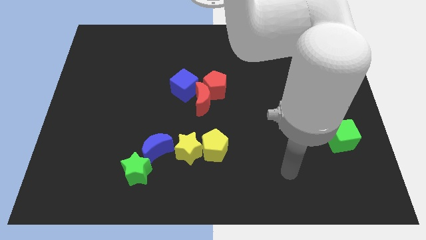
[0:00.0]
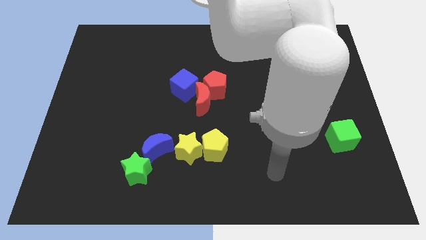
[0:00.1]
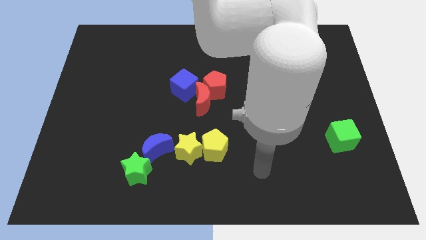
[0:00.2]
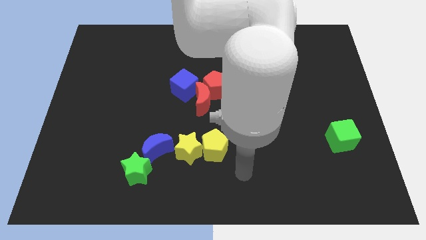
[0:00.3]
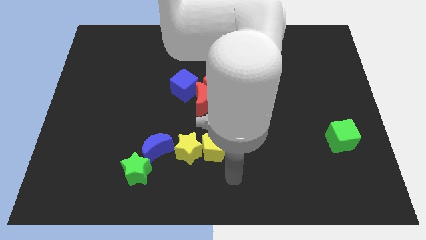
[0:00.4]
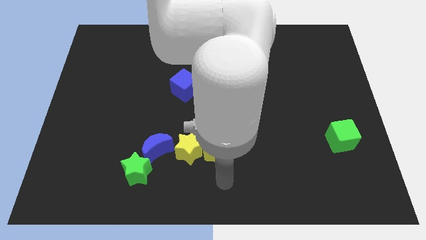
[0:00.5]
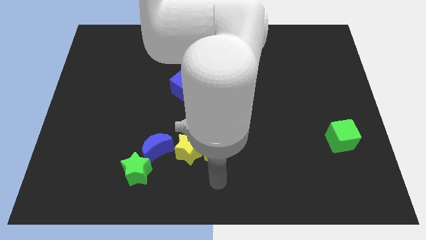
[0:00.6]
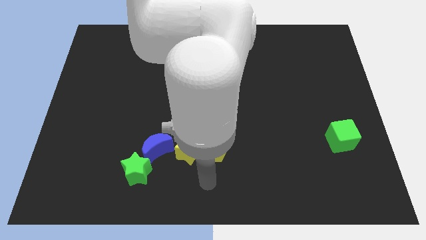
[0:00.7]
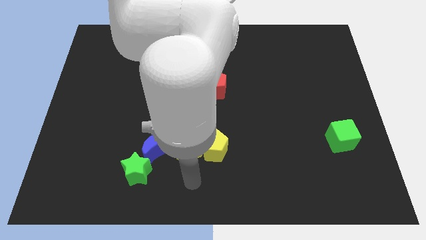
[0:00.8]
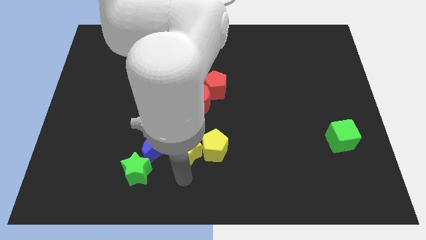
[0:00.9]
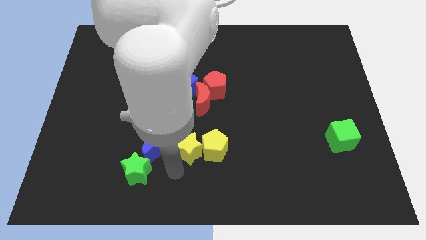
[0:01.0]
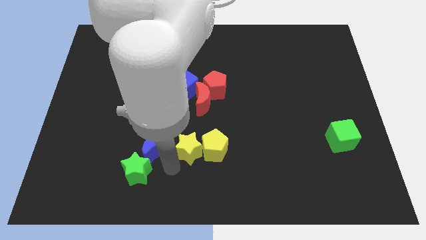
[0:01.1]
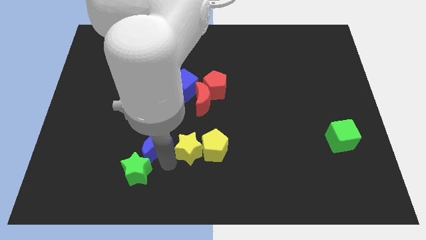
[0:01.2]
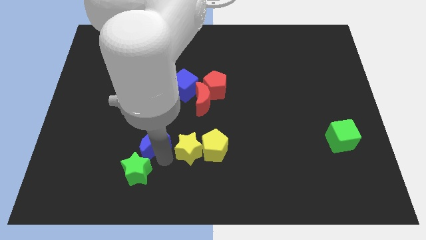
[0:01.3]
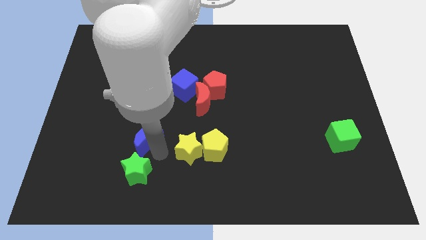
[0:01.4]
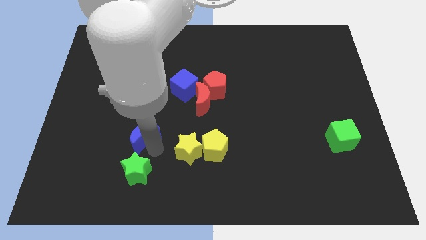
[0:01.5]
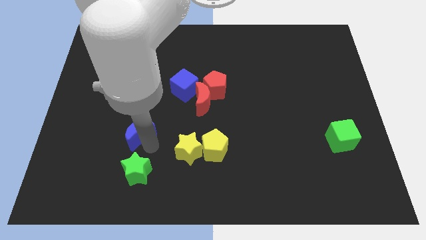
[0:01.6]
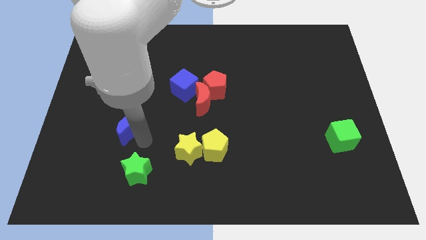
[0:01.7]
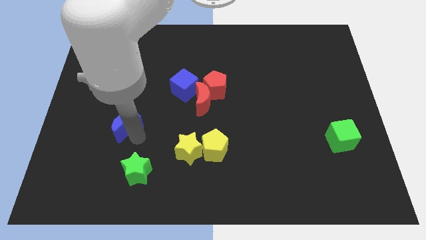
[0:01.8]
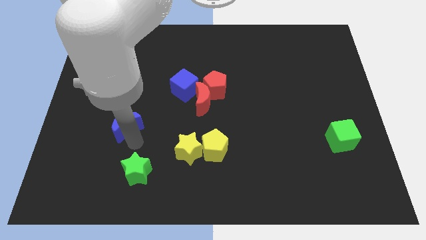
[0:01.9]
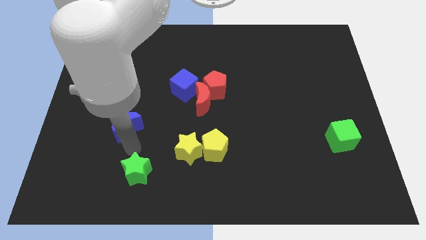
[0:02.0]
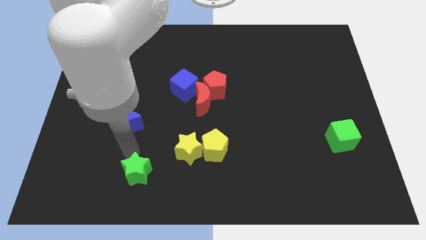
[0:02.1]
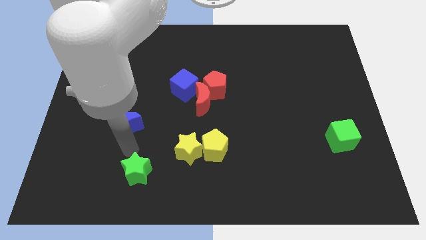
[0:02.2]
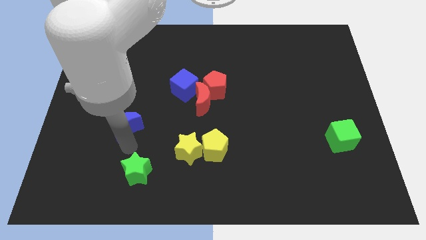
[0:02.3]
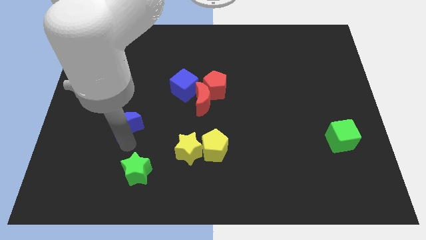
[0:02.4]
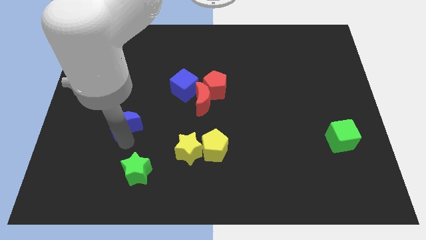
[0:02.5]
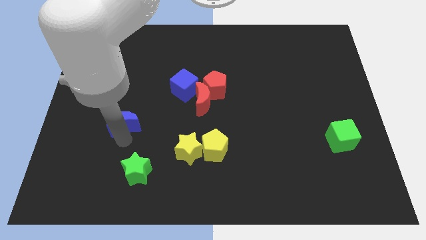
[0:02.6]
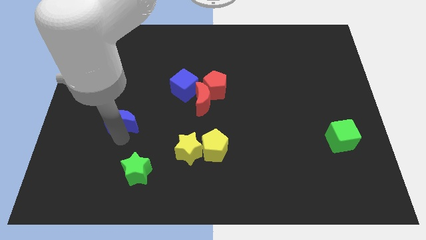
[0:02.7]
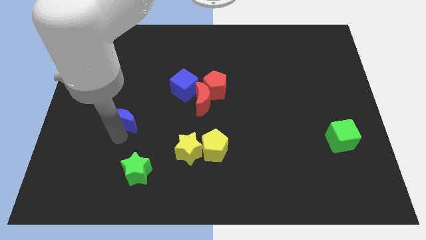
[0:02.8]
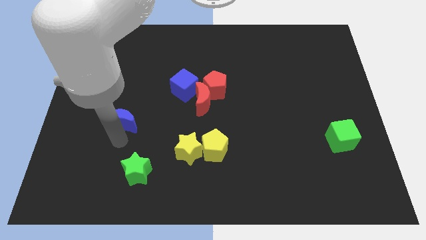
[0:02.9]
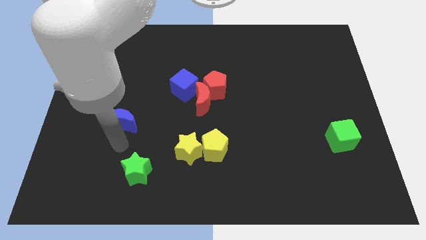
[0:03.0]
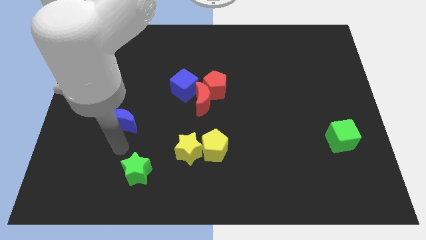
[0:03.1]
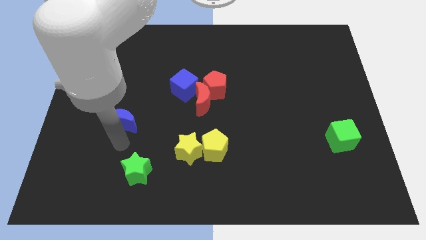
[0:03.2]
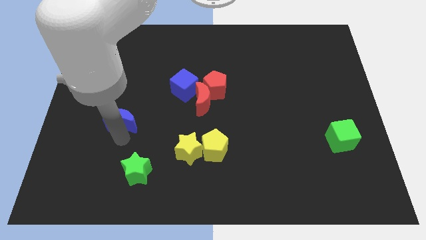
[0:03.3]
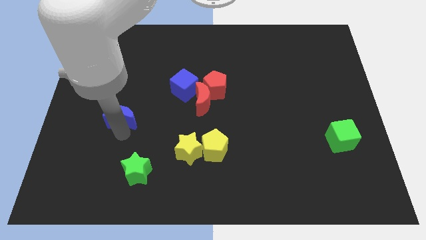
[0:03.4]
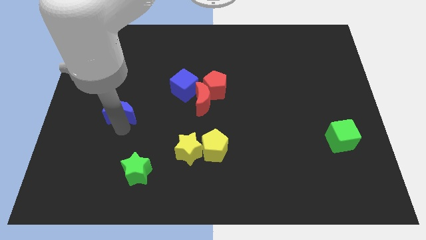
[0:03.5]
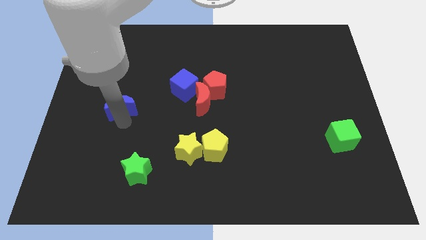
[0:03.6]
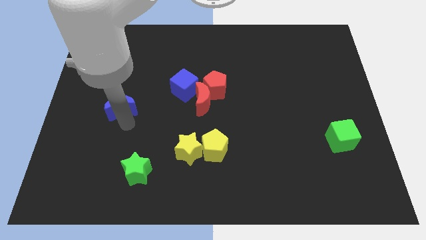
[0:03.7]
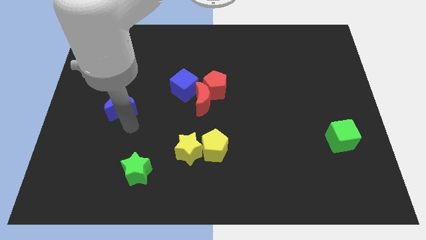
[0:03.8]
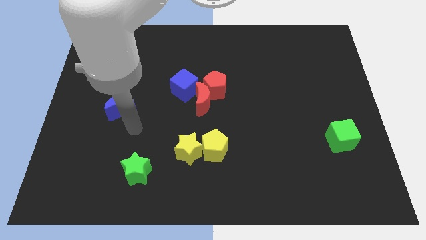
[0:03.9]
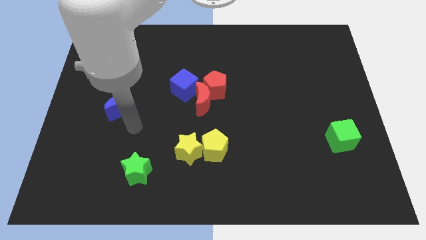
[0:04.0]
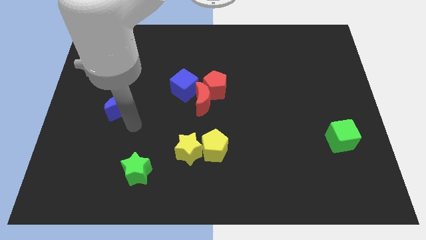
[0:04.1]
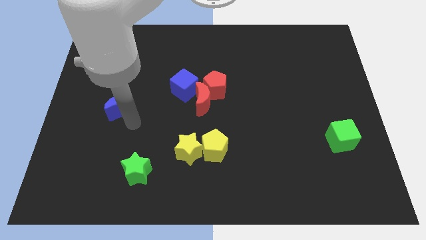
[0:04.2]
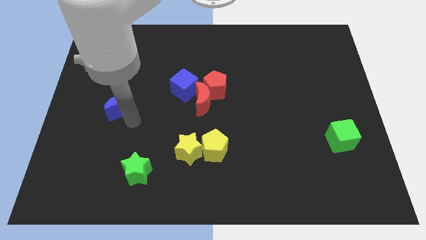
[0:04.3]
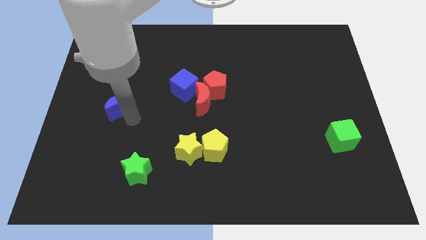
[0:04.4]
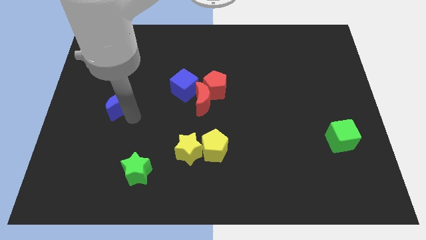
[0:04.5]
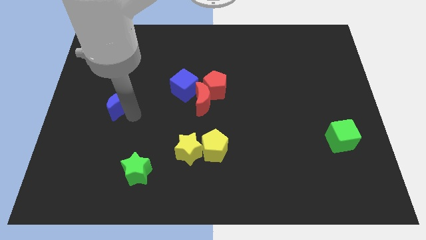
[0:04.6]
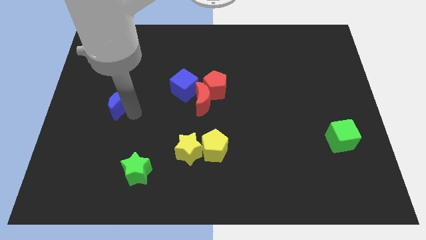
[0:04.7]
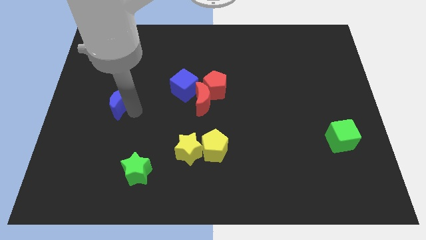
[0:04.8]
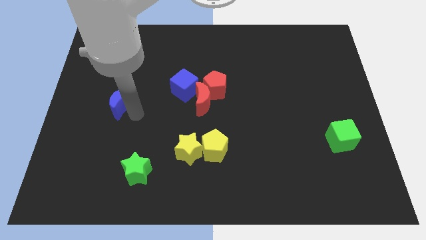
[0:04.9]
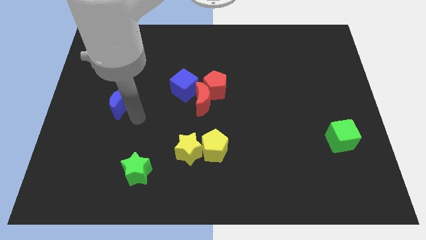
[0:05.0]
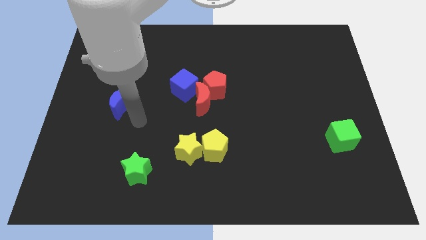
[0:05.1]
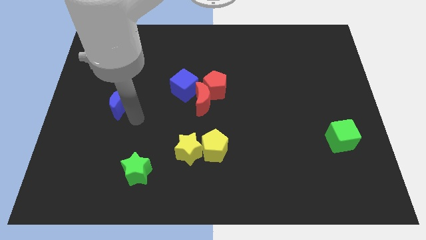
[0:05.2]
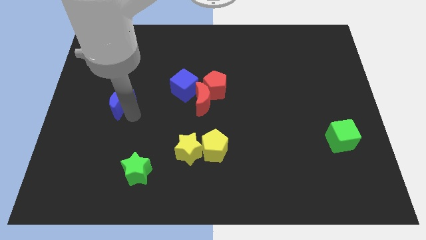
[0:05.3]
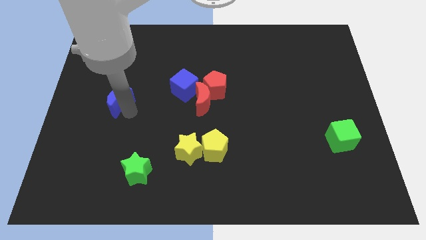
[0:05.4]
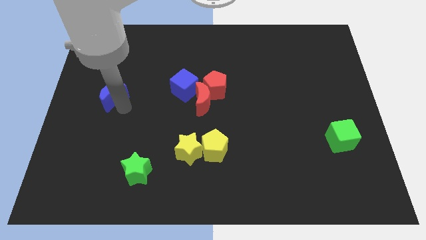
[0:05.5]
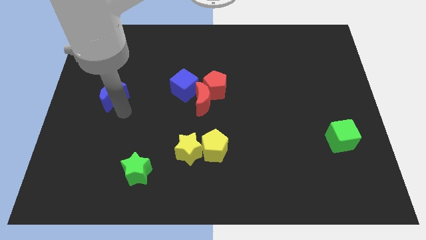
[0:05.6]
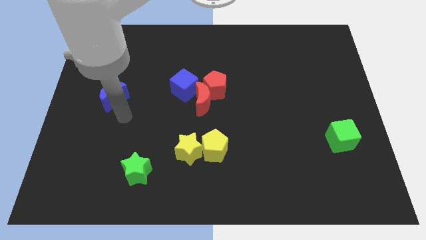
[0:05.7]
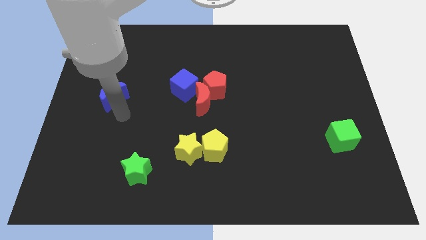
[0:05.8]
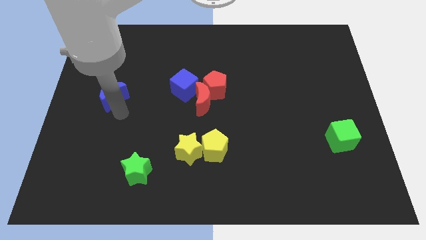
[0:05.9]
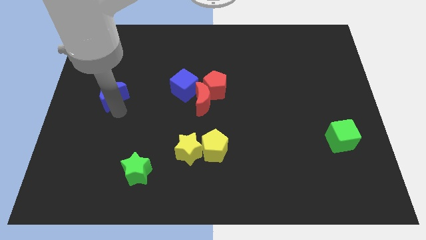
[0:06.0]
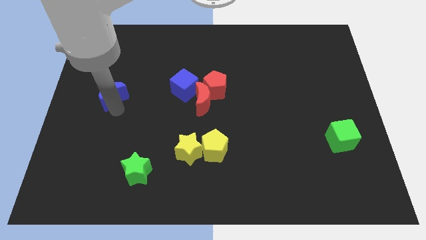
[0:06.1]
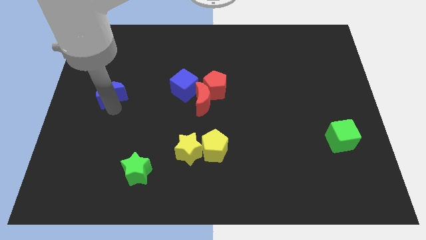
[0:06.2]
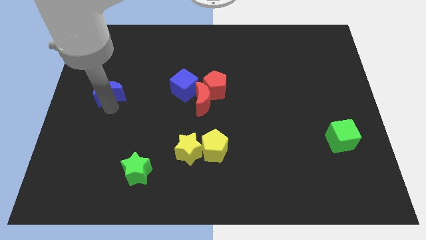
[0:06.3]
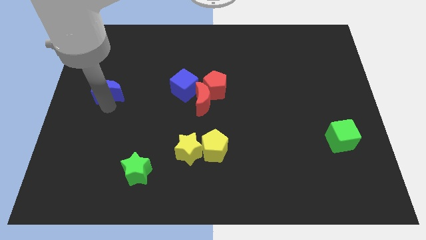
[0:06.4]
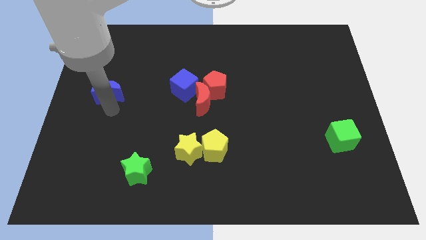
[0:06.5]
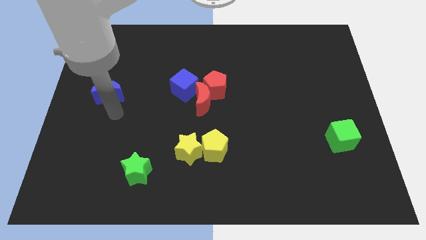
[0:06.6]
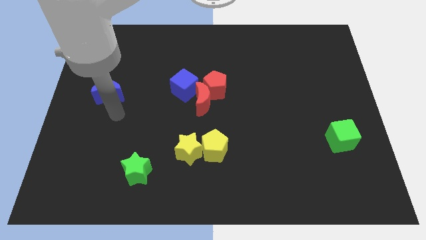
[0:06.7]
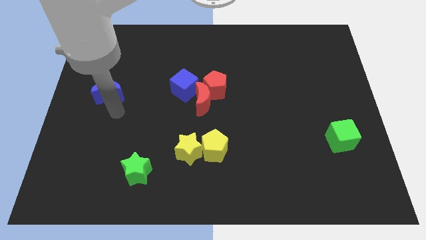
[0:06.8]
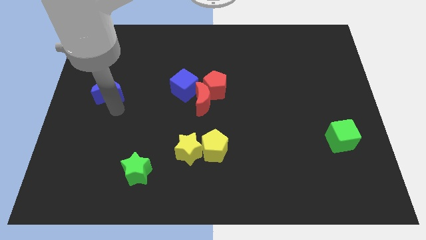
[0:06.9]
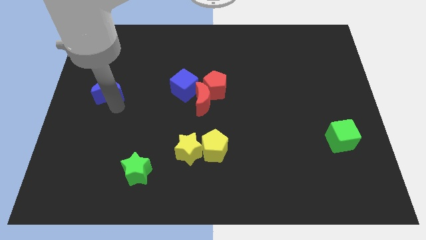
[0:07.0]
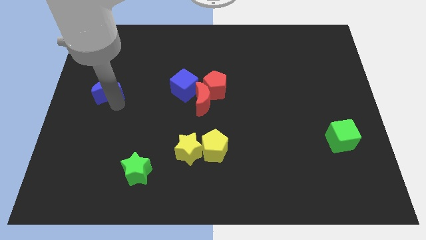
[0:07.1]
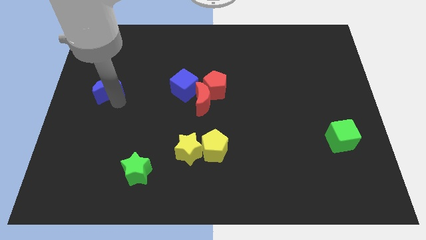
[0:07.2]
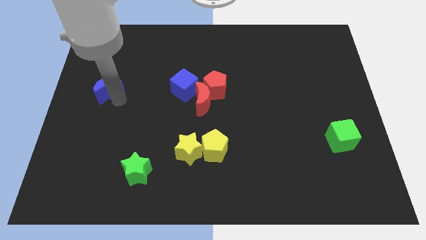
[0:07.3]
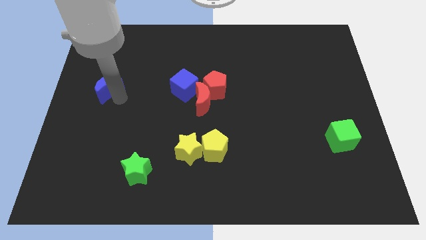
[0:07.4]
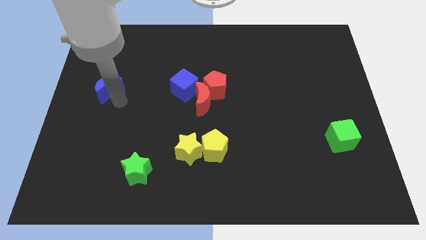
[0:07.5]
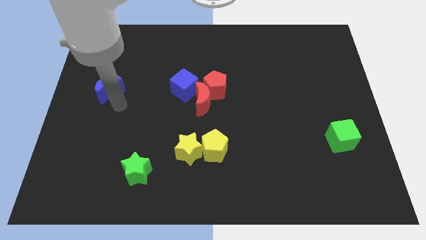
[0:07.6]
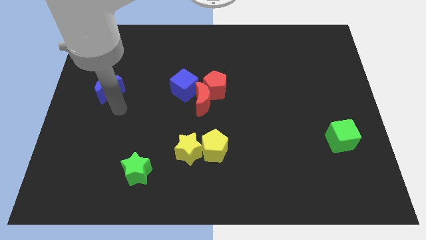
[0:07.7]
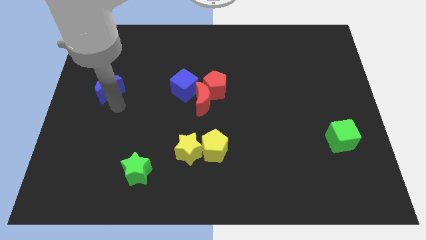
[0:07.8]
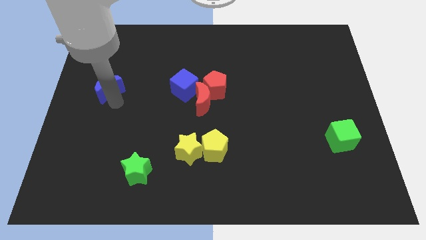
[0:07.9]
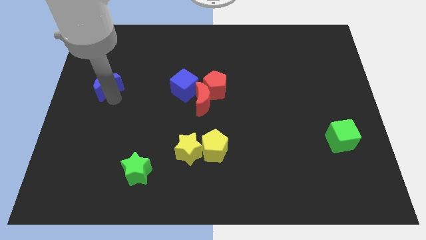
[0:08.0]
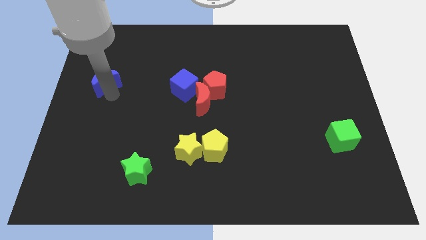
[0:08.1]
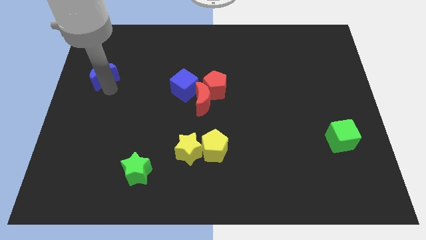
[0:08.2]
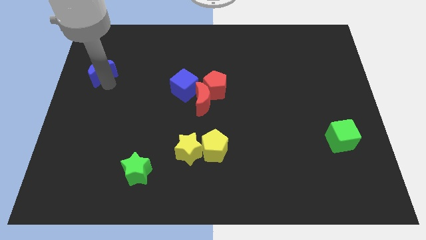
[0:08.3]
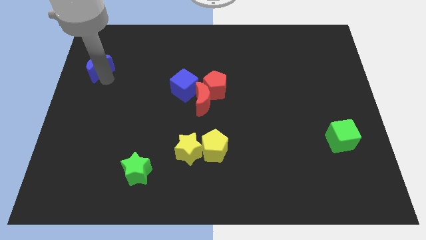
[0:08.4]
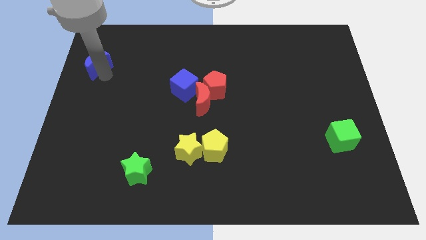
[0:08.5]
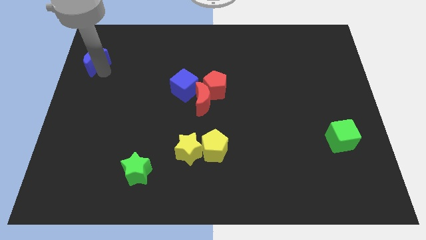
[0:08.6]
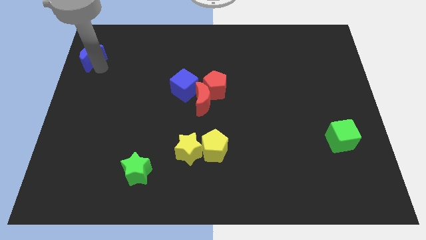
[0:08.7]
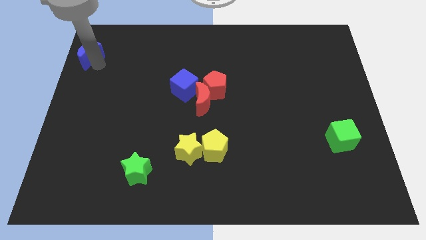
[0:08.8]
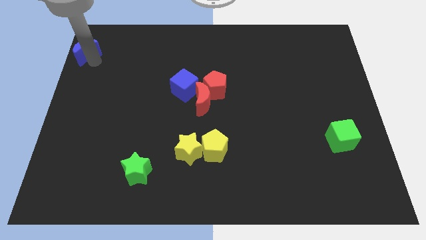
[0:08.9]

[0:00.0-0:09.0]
push the blue moon to the top left of the board
